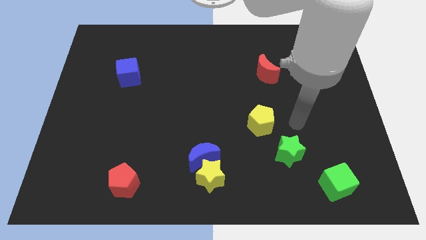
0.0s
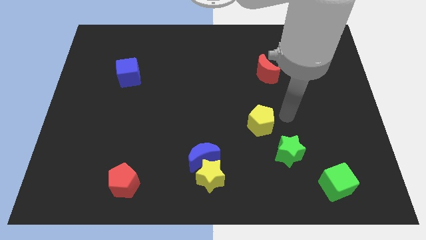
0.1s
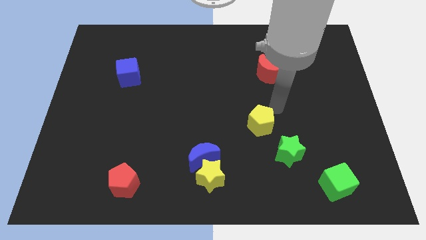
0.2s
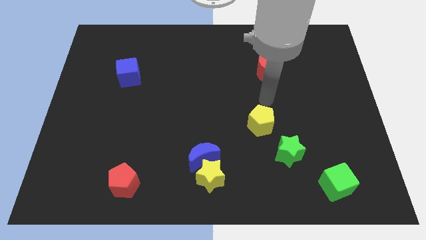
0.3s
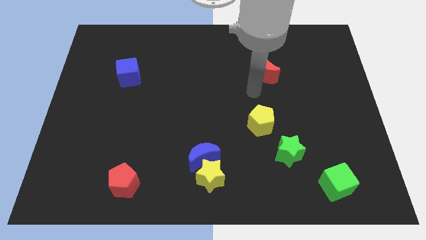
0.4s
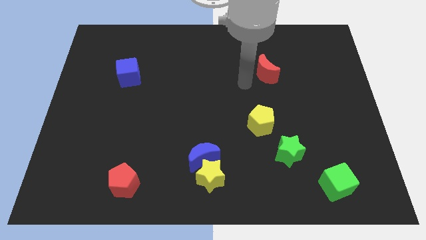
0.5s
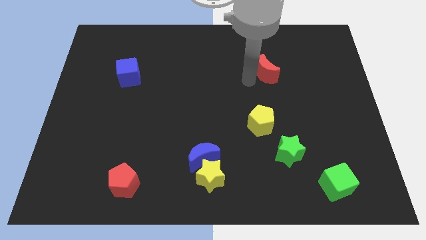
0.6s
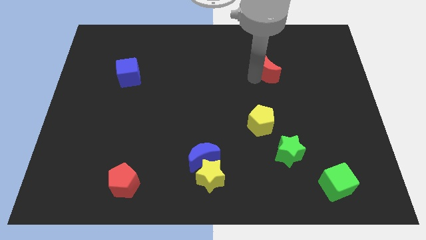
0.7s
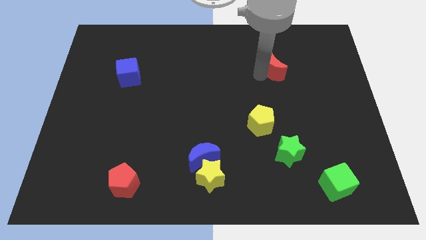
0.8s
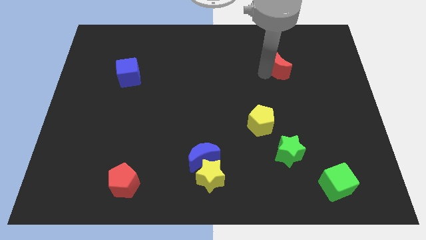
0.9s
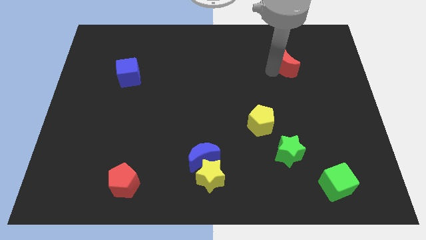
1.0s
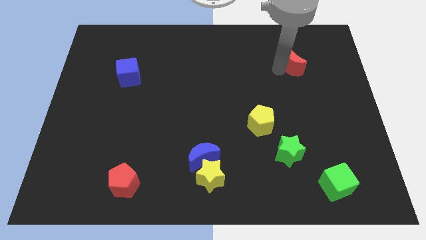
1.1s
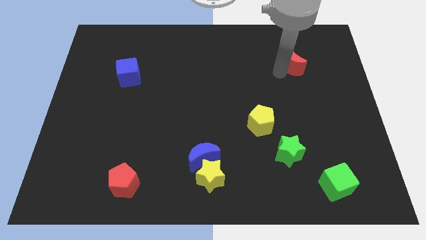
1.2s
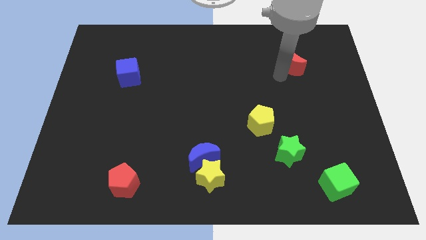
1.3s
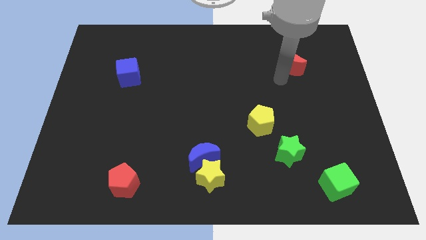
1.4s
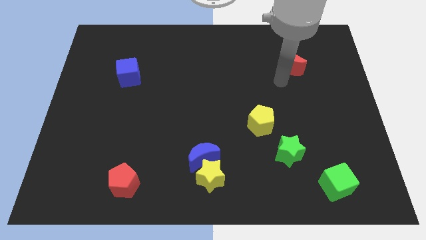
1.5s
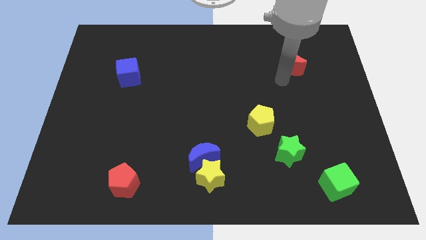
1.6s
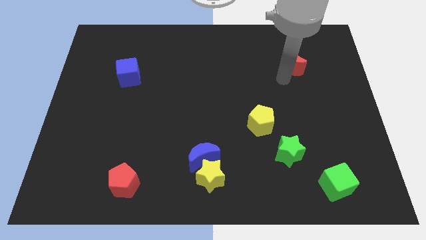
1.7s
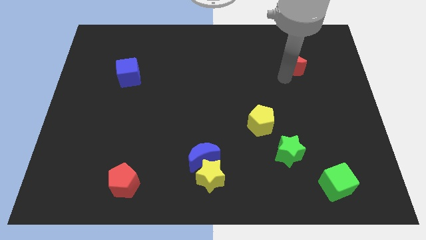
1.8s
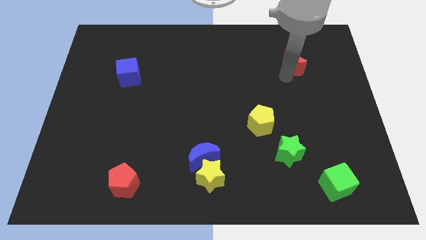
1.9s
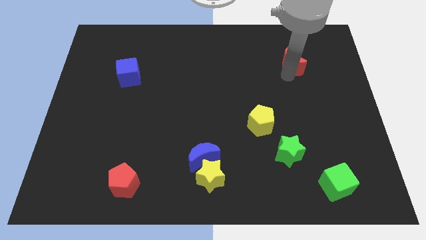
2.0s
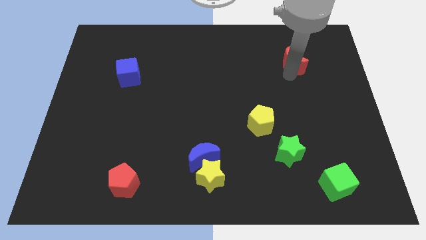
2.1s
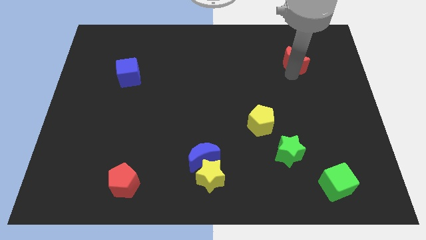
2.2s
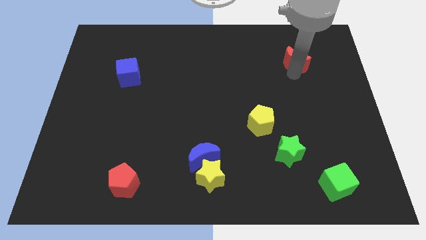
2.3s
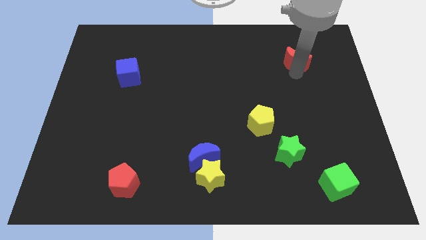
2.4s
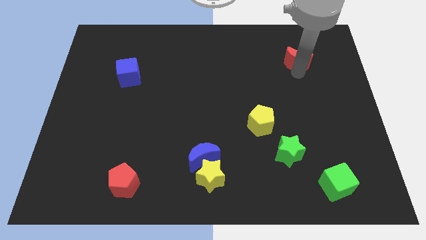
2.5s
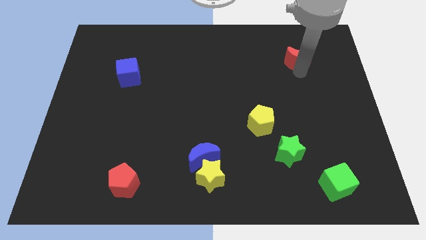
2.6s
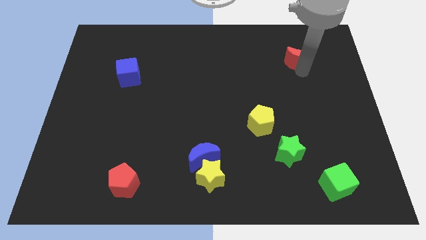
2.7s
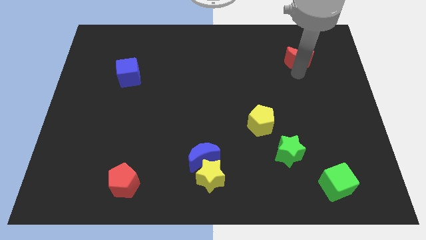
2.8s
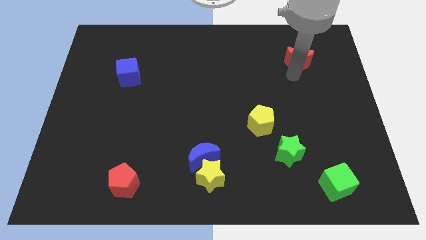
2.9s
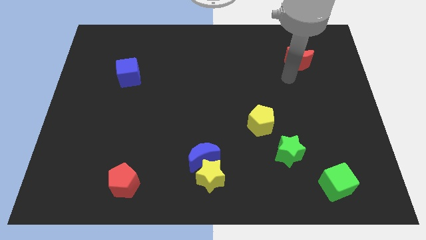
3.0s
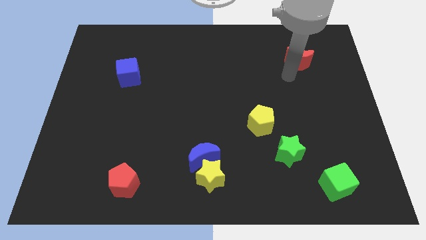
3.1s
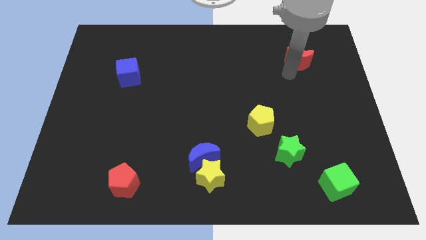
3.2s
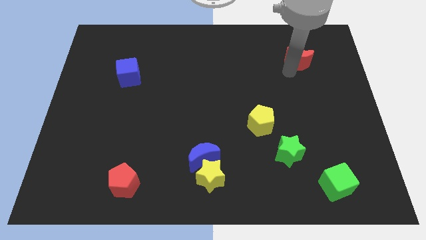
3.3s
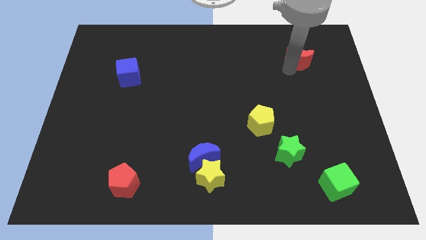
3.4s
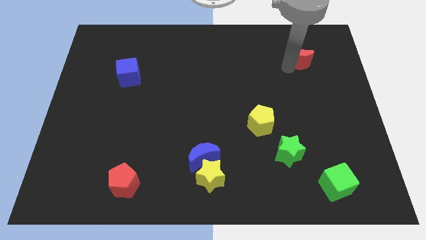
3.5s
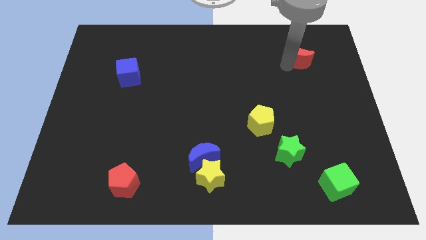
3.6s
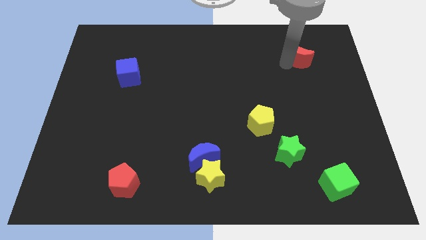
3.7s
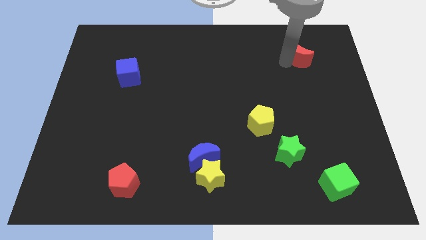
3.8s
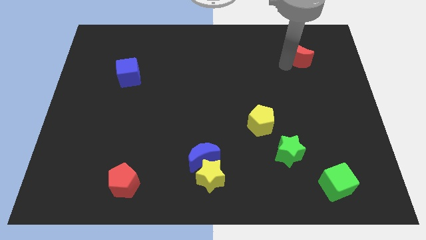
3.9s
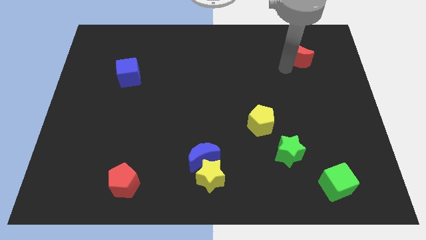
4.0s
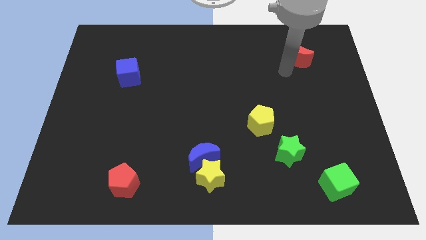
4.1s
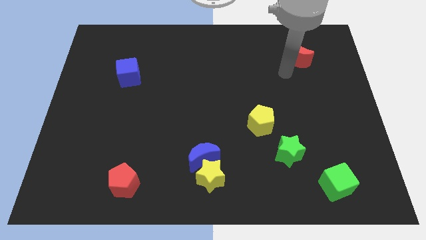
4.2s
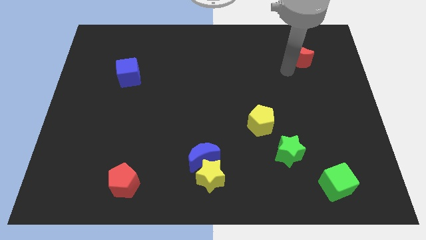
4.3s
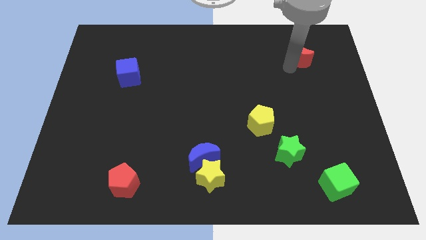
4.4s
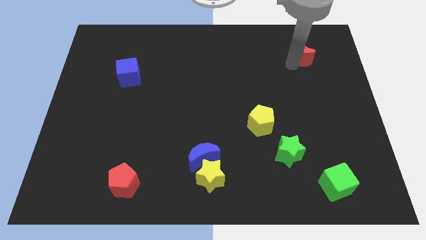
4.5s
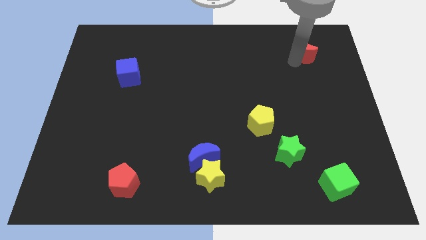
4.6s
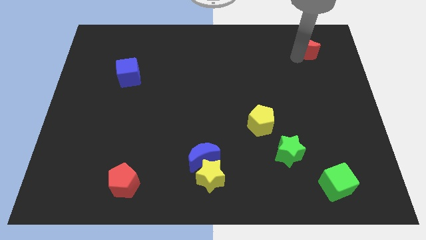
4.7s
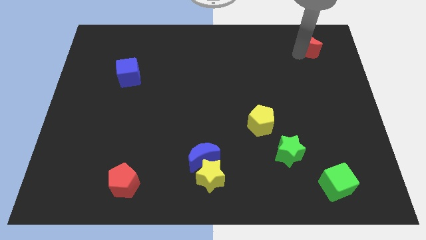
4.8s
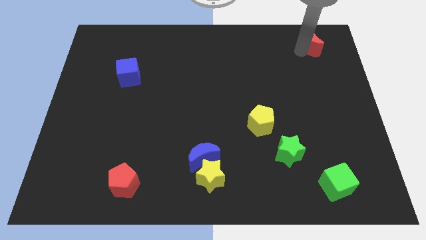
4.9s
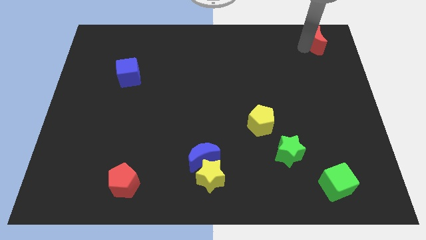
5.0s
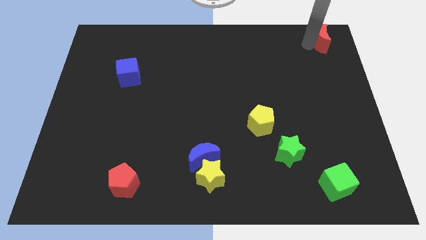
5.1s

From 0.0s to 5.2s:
slide the red moon to the top right

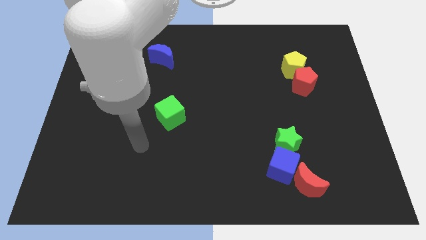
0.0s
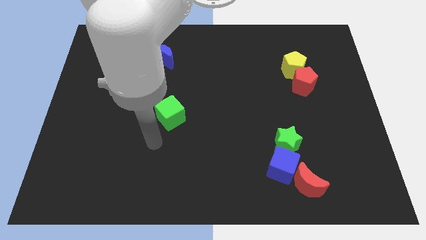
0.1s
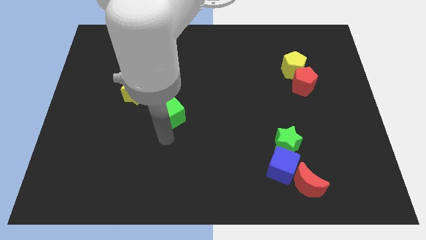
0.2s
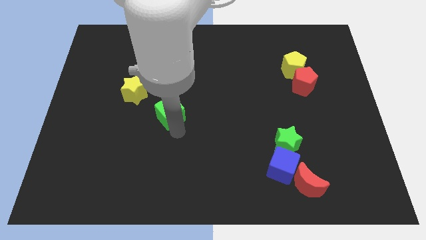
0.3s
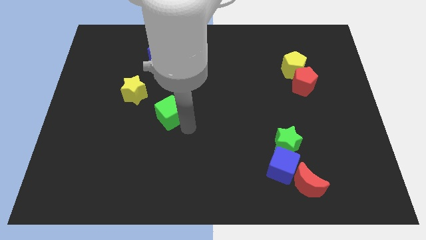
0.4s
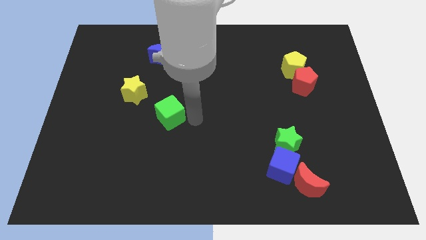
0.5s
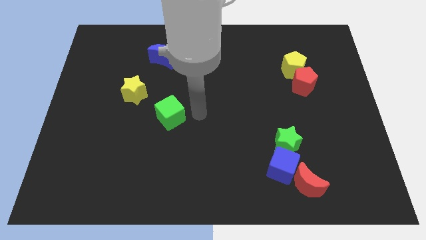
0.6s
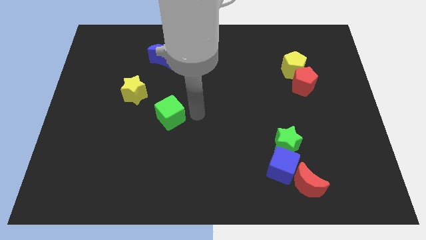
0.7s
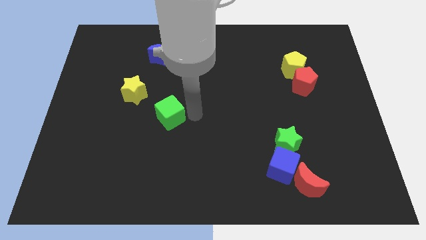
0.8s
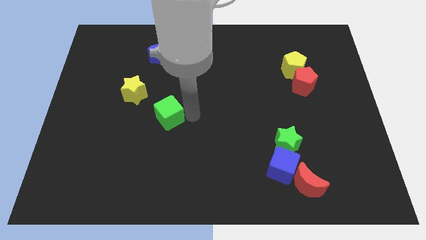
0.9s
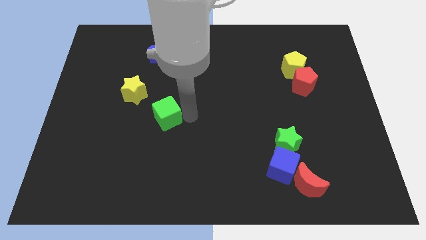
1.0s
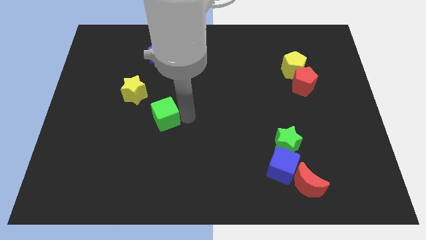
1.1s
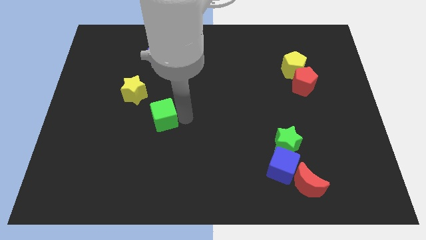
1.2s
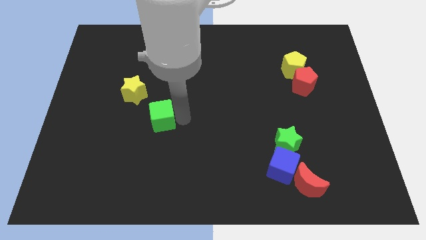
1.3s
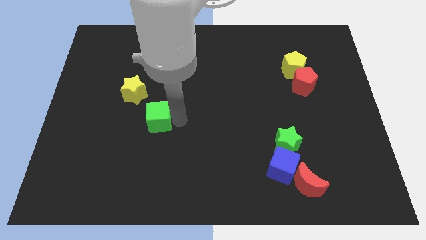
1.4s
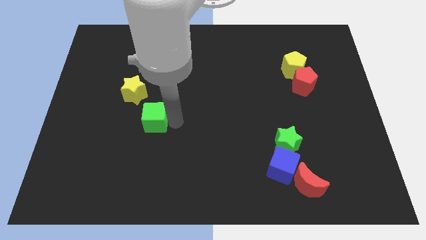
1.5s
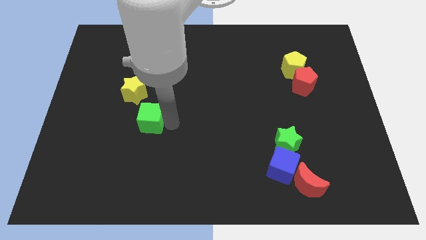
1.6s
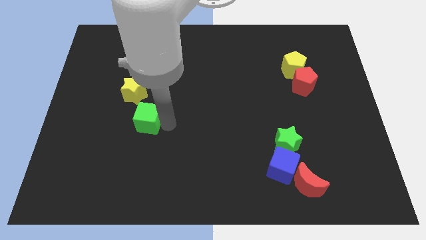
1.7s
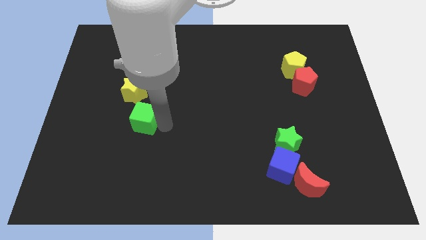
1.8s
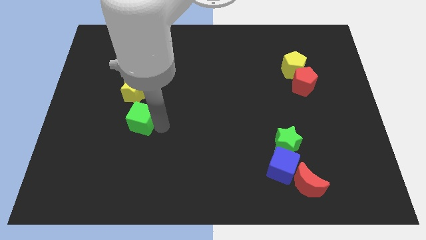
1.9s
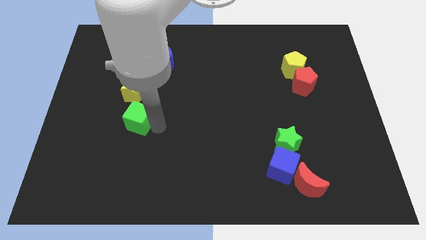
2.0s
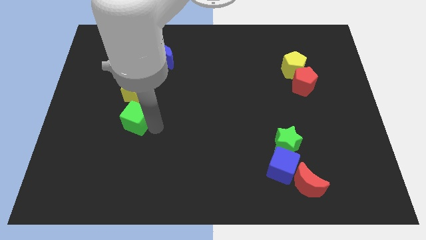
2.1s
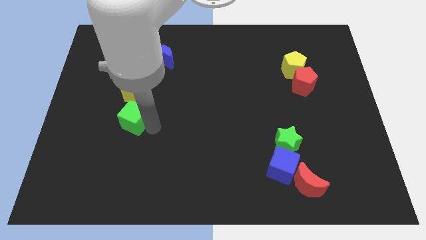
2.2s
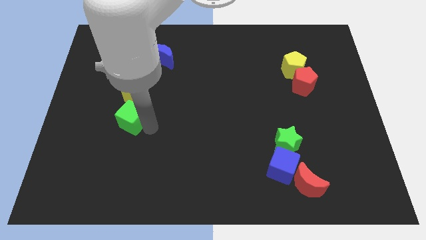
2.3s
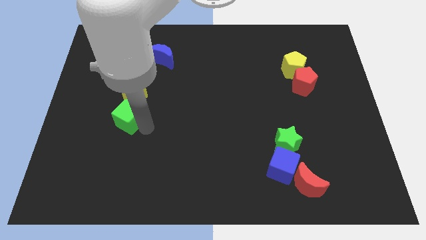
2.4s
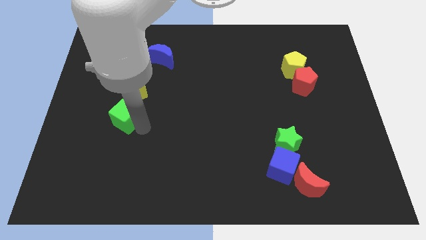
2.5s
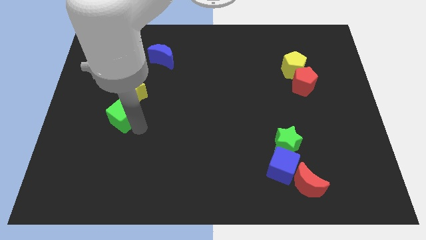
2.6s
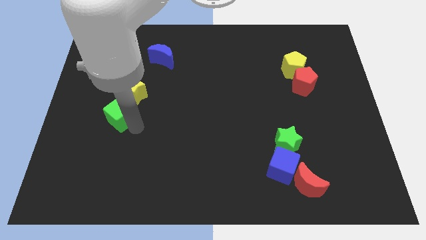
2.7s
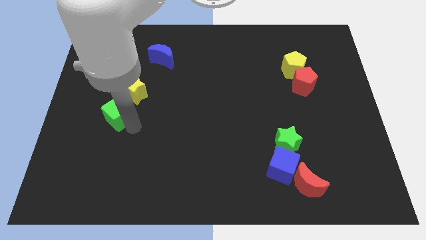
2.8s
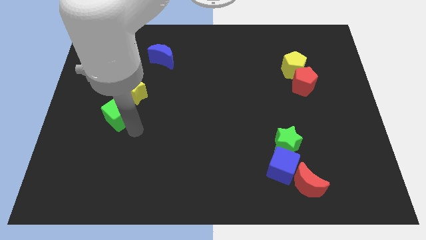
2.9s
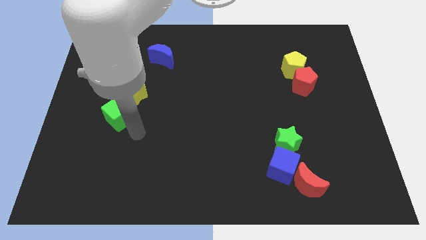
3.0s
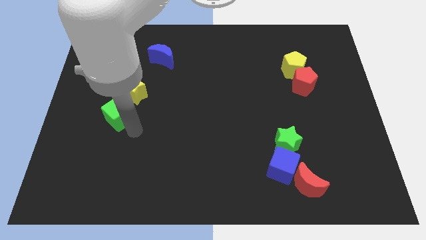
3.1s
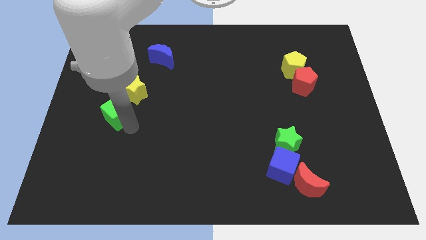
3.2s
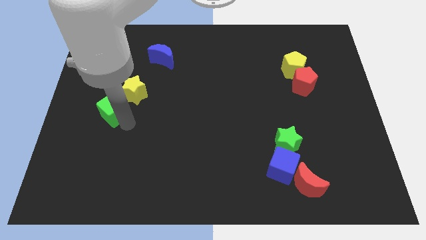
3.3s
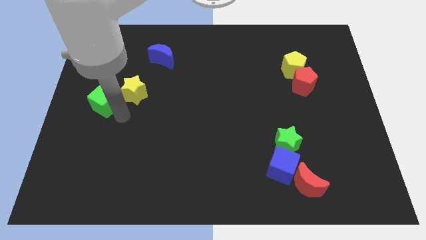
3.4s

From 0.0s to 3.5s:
move the green cube to the left side

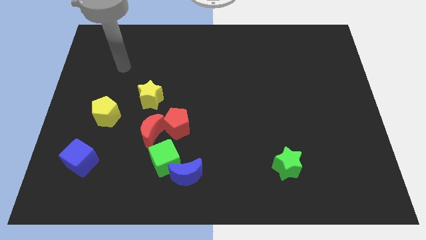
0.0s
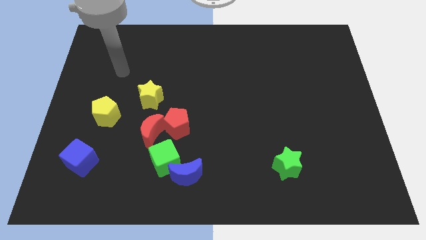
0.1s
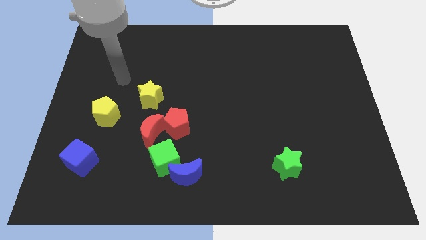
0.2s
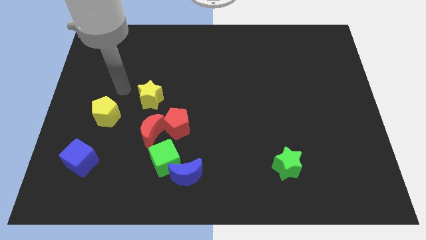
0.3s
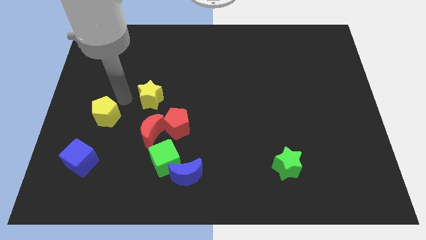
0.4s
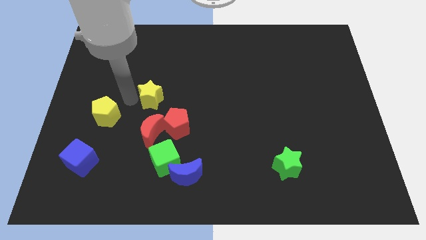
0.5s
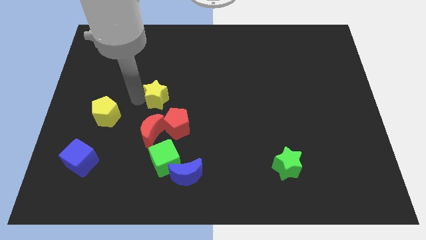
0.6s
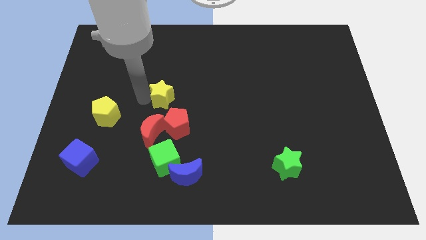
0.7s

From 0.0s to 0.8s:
slide the yellow star to the middle of the board
